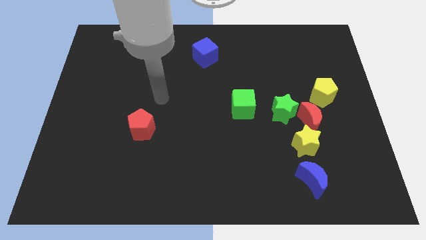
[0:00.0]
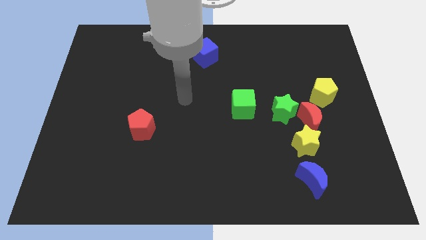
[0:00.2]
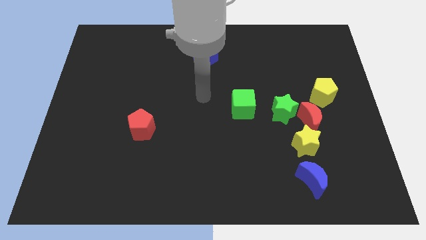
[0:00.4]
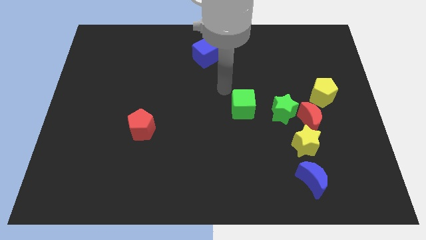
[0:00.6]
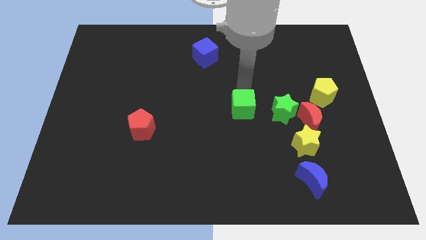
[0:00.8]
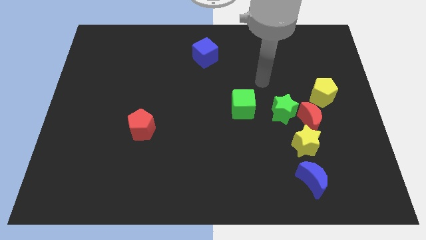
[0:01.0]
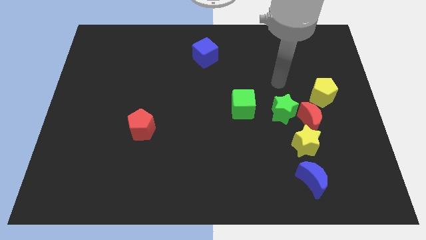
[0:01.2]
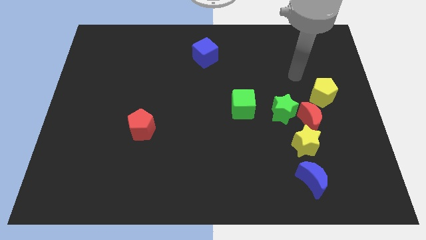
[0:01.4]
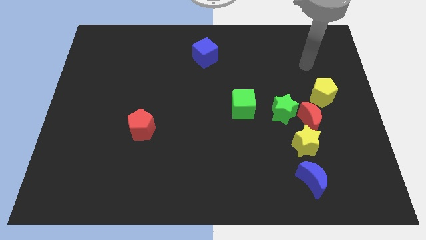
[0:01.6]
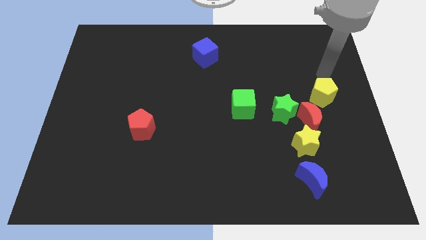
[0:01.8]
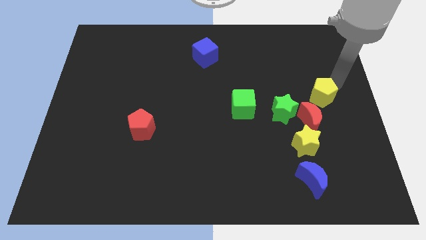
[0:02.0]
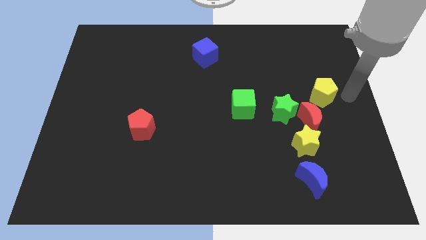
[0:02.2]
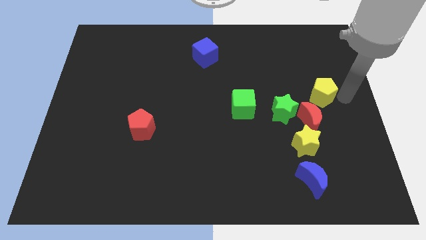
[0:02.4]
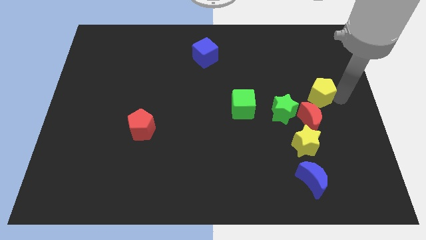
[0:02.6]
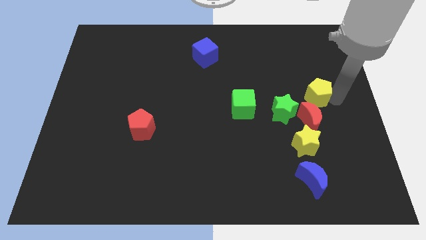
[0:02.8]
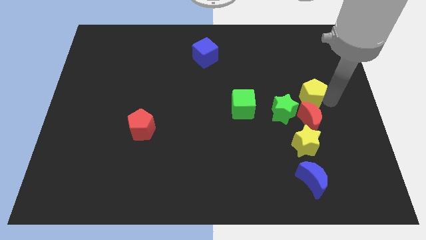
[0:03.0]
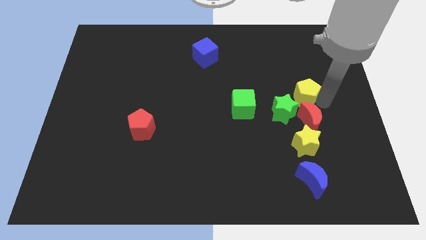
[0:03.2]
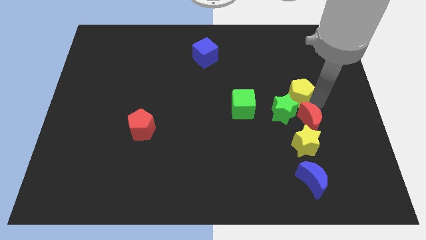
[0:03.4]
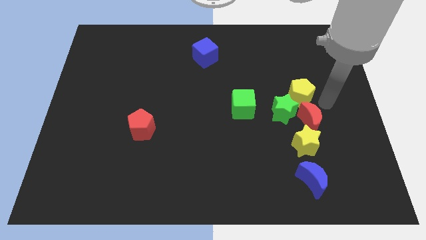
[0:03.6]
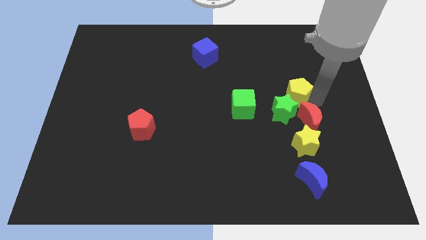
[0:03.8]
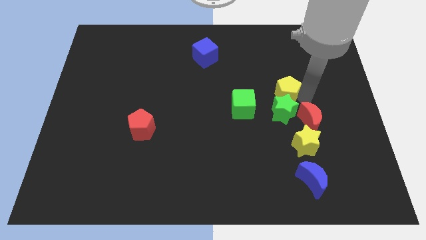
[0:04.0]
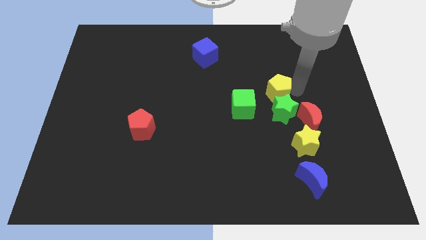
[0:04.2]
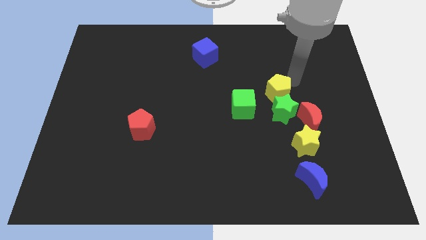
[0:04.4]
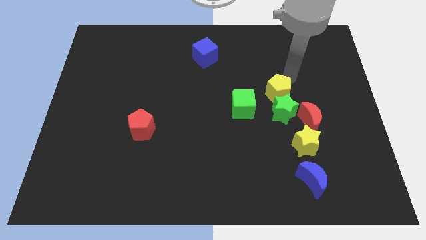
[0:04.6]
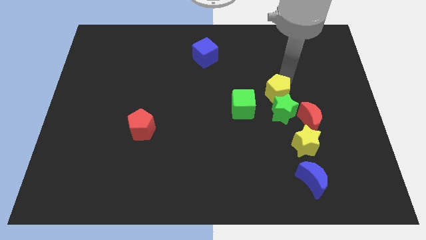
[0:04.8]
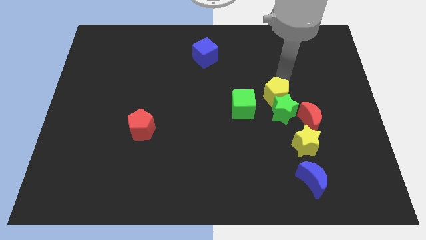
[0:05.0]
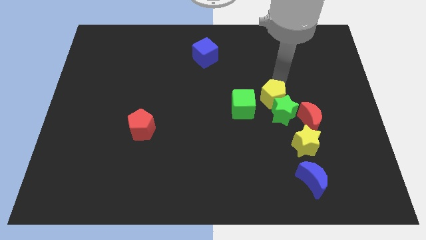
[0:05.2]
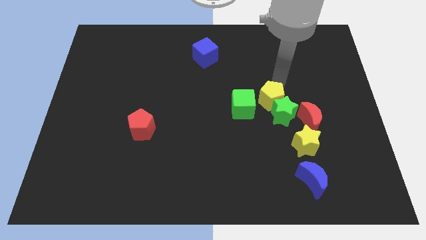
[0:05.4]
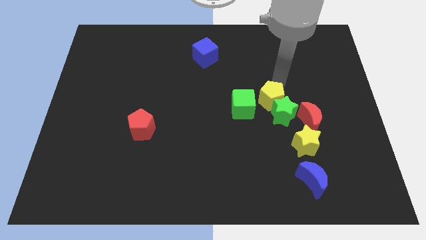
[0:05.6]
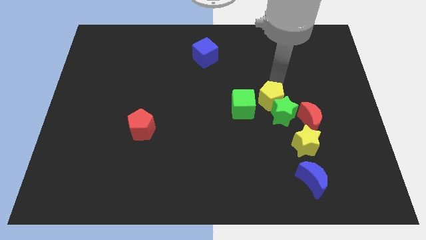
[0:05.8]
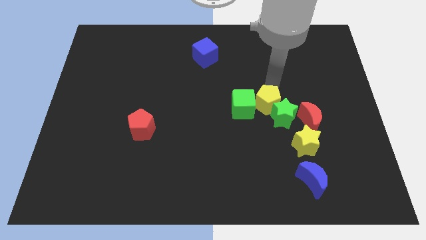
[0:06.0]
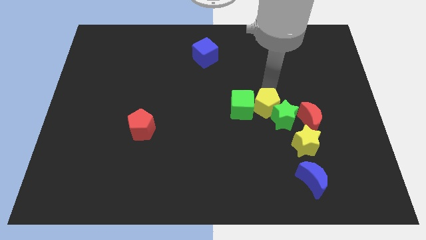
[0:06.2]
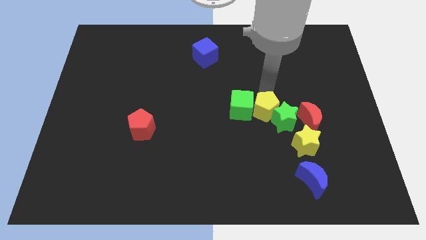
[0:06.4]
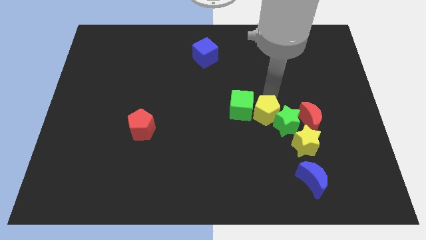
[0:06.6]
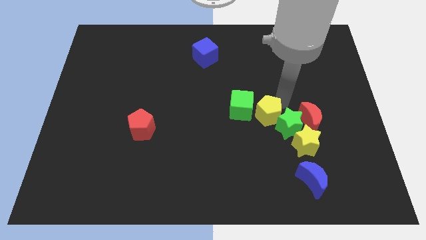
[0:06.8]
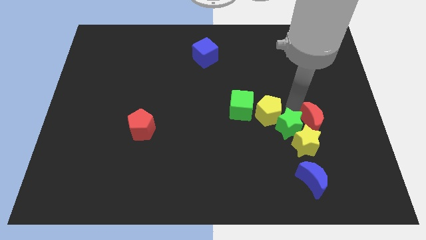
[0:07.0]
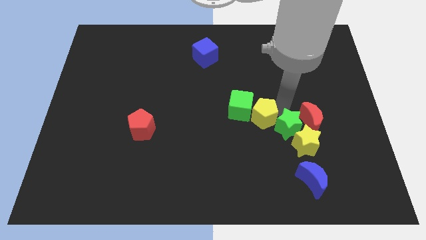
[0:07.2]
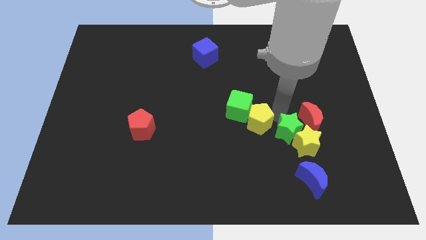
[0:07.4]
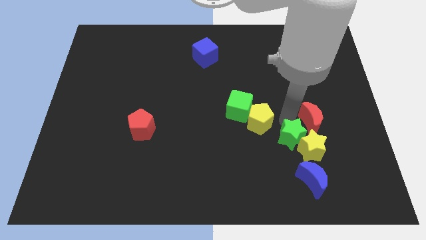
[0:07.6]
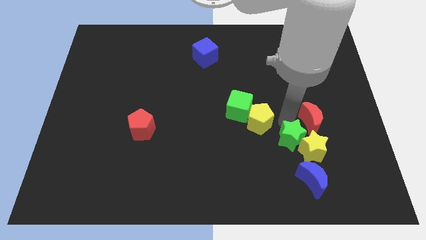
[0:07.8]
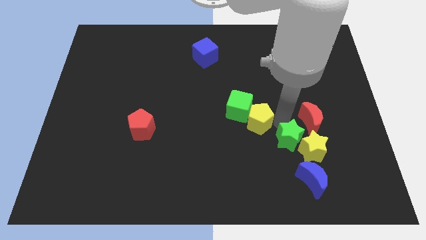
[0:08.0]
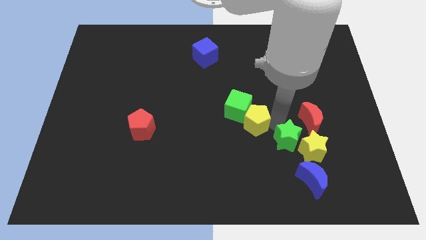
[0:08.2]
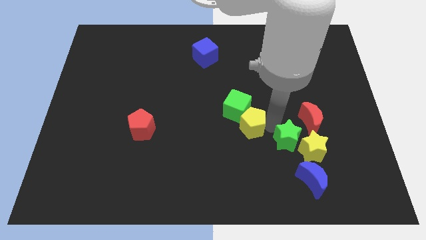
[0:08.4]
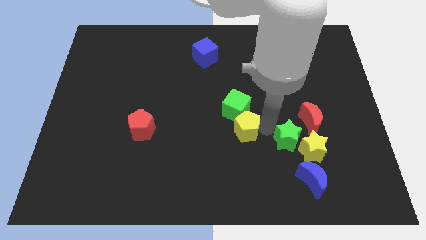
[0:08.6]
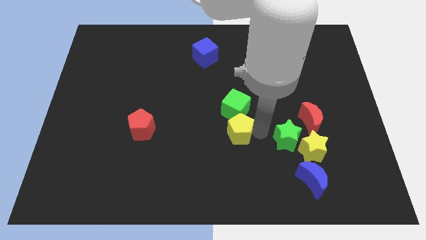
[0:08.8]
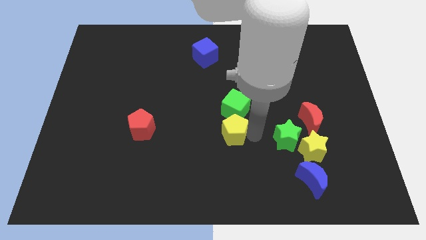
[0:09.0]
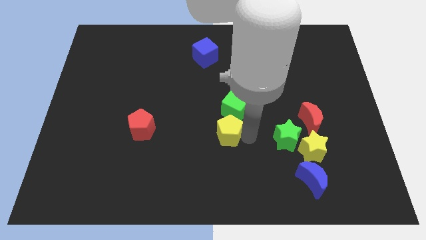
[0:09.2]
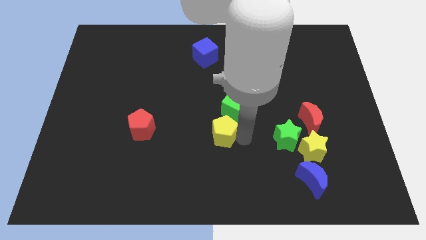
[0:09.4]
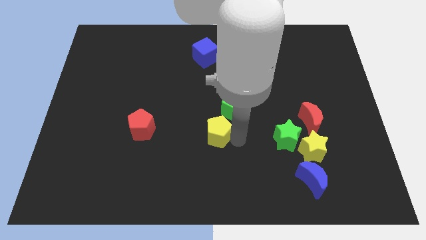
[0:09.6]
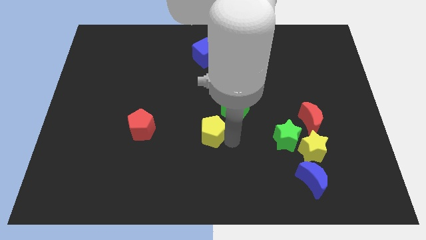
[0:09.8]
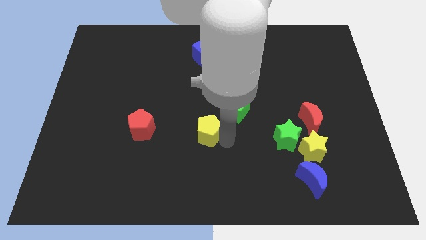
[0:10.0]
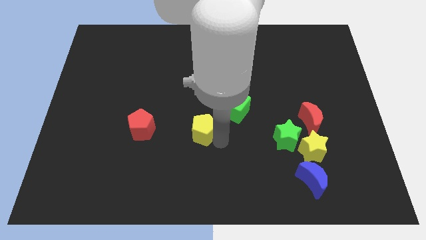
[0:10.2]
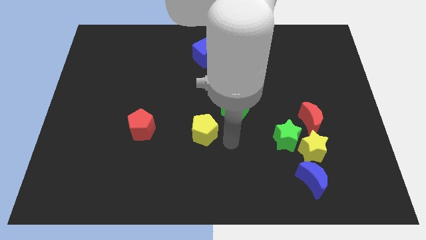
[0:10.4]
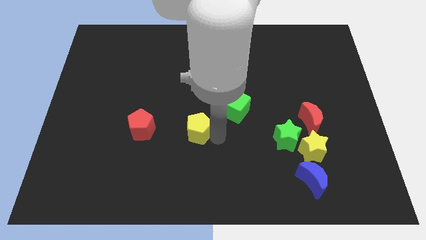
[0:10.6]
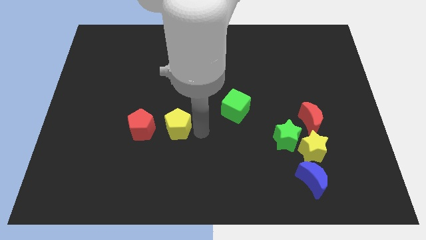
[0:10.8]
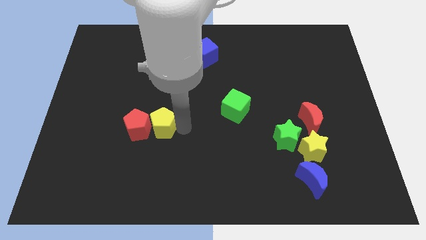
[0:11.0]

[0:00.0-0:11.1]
slide the yellow pentagon towards the red pentagon

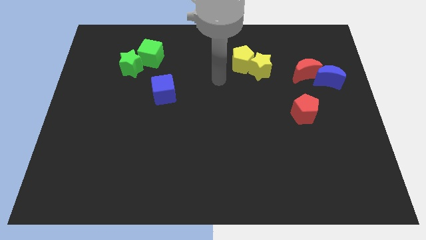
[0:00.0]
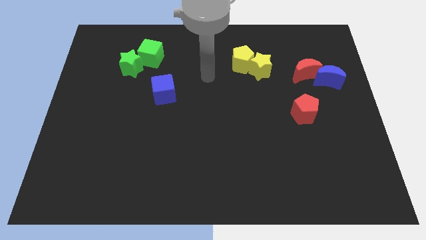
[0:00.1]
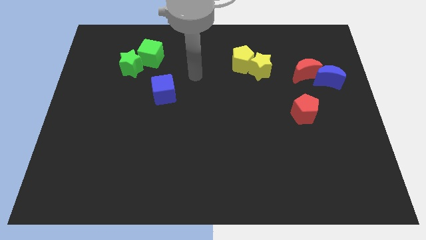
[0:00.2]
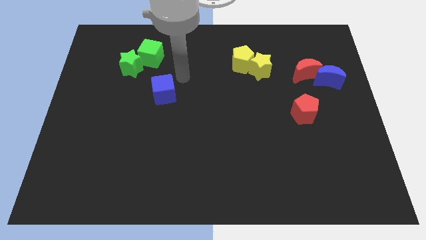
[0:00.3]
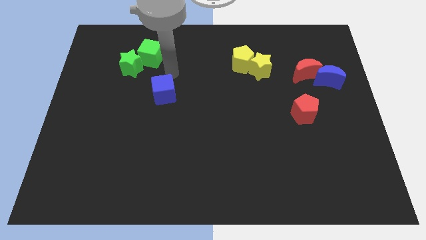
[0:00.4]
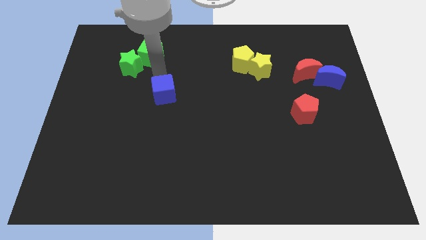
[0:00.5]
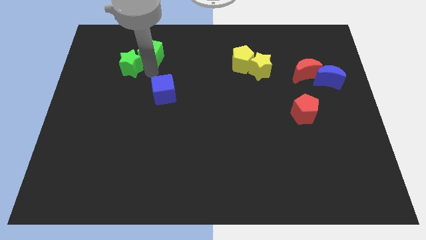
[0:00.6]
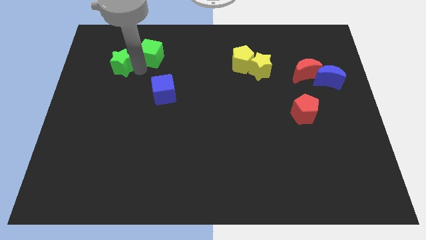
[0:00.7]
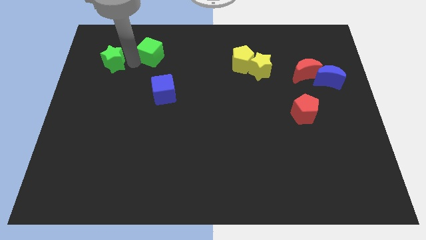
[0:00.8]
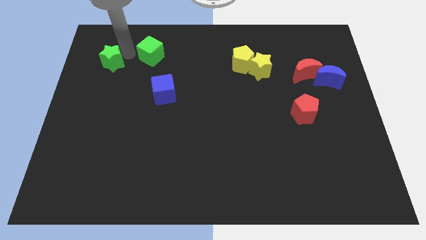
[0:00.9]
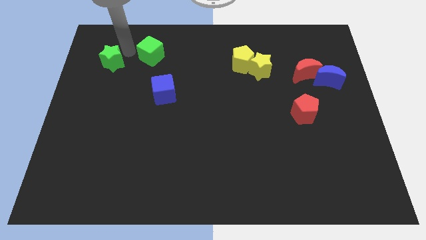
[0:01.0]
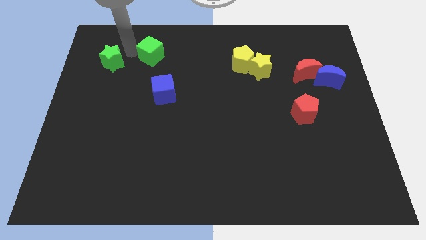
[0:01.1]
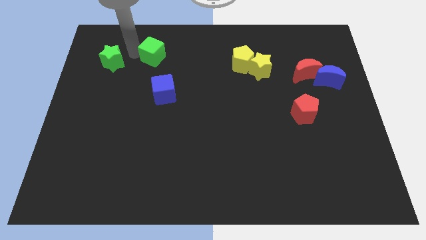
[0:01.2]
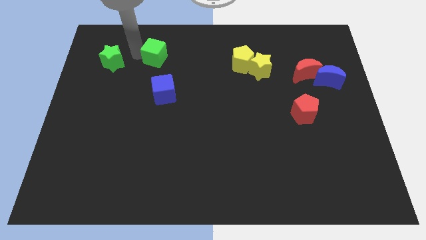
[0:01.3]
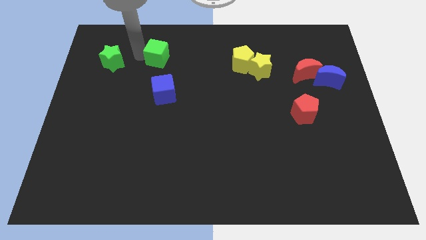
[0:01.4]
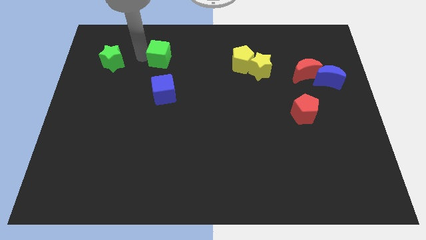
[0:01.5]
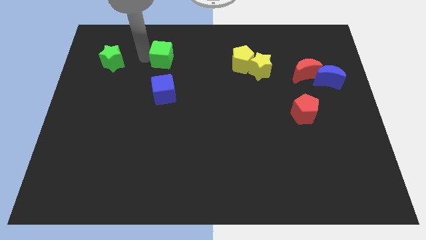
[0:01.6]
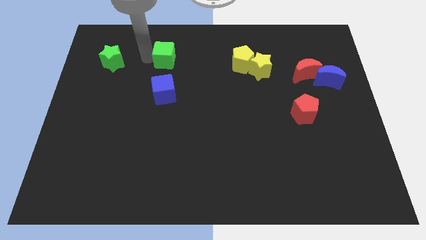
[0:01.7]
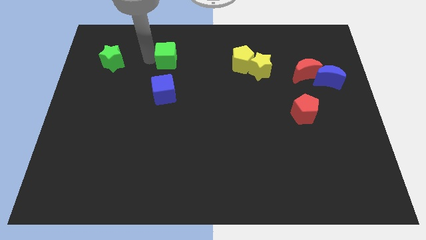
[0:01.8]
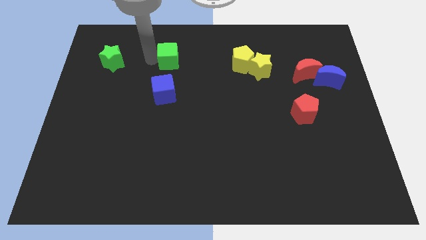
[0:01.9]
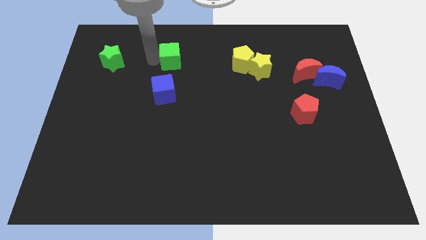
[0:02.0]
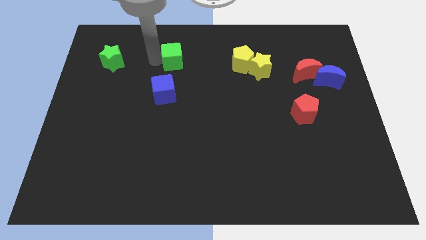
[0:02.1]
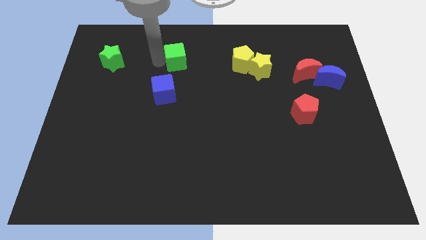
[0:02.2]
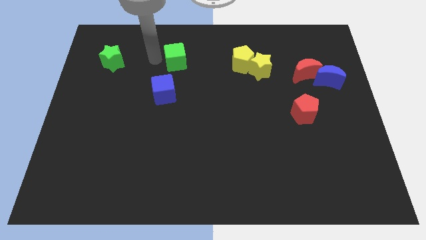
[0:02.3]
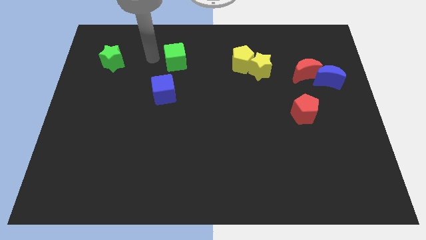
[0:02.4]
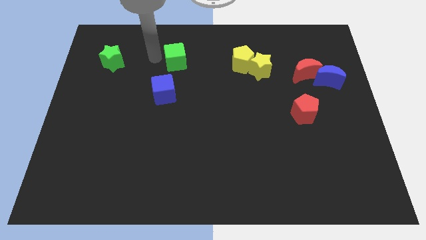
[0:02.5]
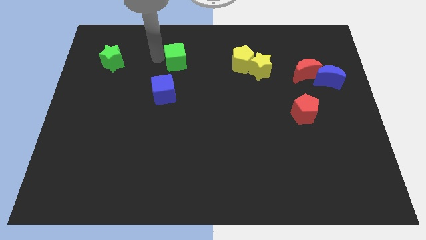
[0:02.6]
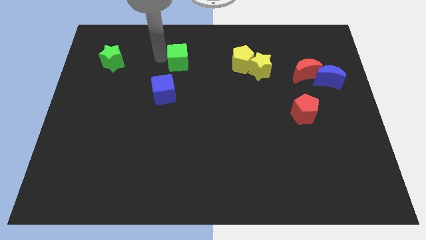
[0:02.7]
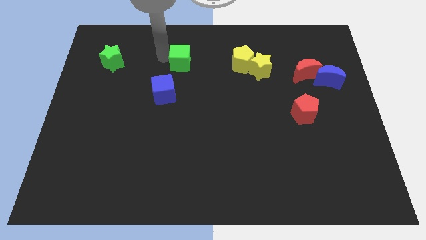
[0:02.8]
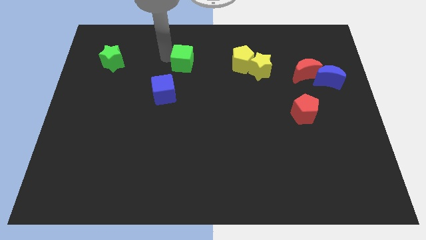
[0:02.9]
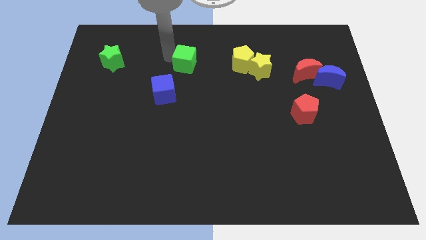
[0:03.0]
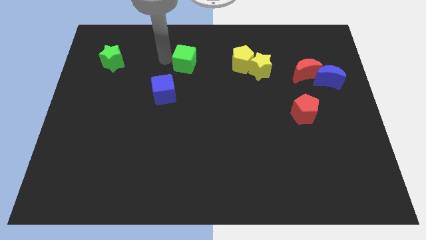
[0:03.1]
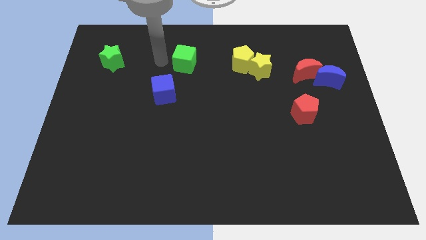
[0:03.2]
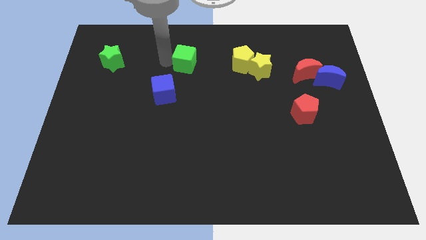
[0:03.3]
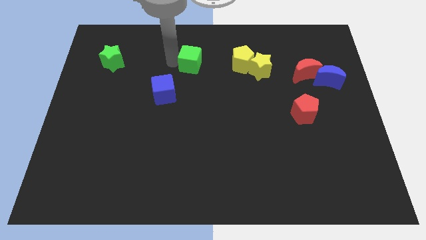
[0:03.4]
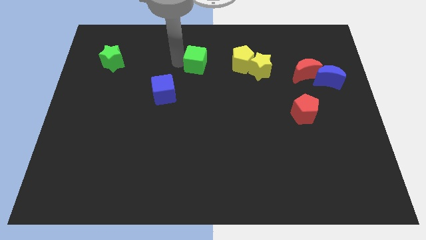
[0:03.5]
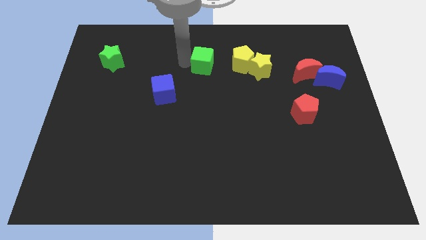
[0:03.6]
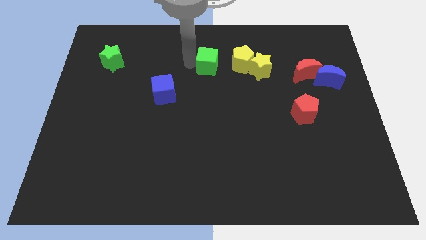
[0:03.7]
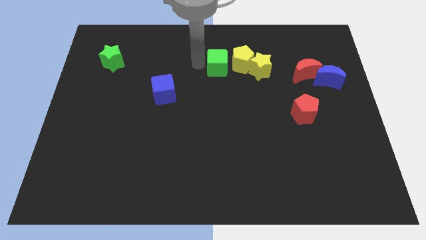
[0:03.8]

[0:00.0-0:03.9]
push the green cube close to the yellow pentagon
